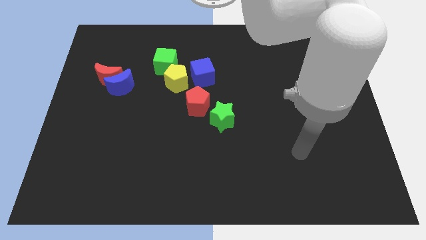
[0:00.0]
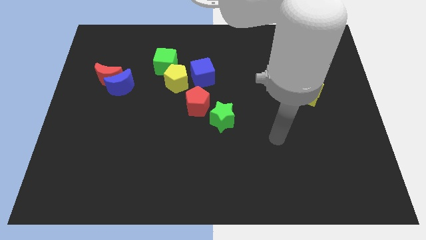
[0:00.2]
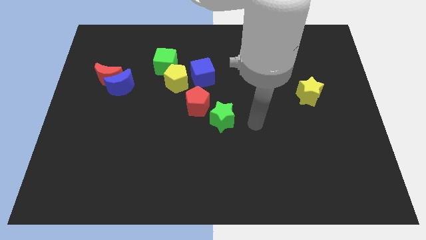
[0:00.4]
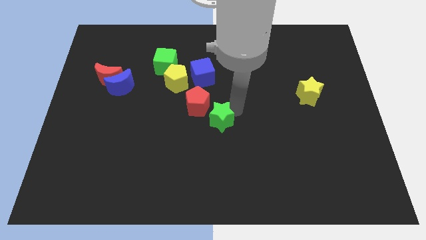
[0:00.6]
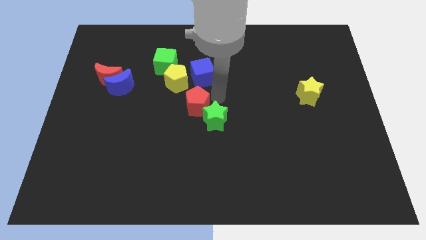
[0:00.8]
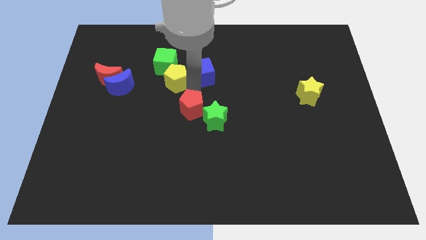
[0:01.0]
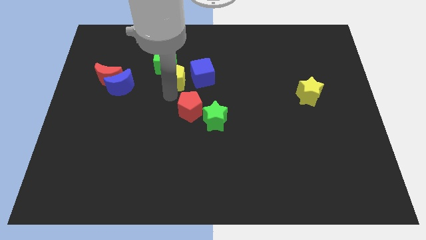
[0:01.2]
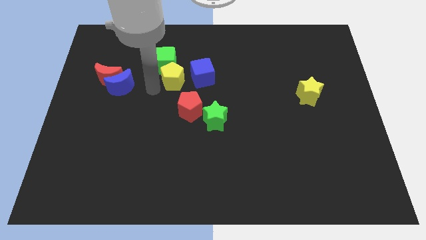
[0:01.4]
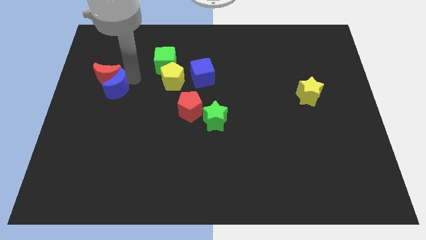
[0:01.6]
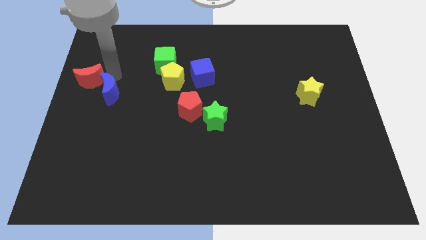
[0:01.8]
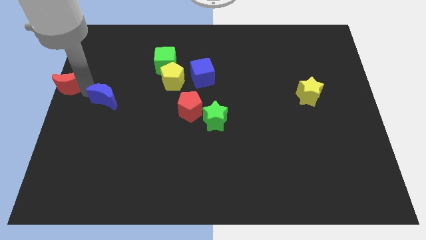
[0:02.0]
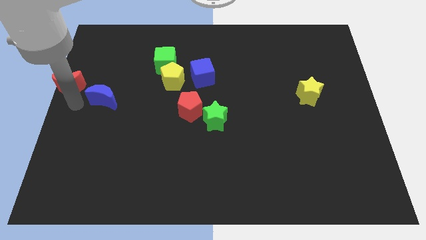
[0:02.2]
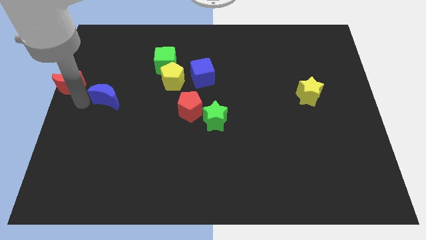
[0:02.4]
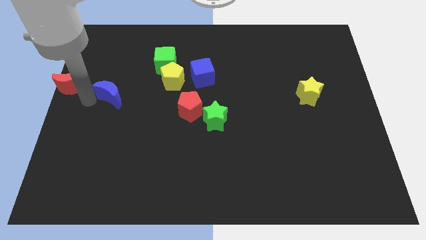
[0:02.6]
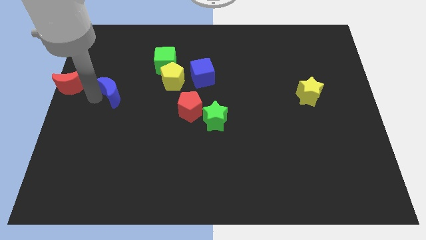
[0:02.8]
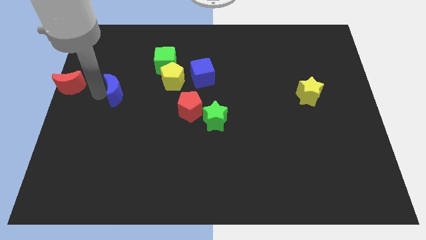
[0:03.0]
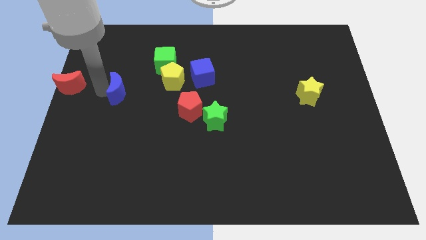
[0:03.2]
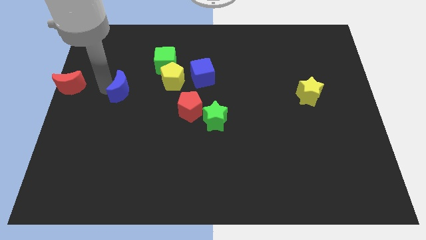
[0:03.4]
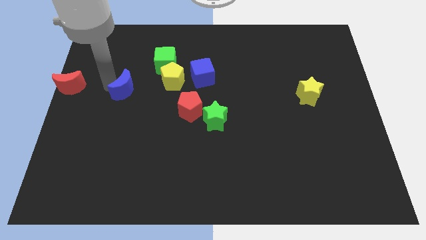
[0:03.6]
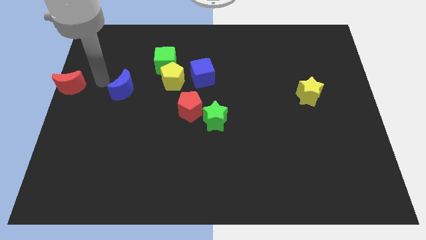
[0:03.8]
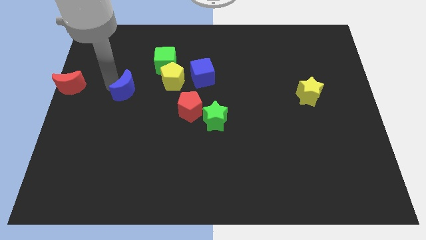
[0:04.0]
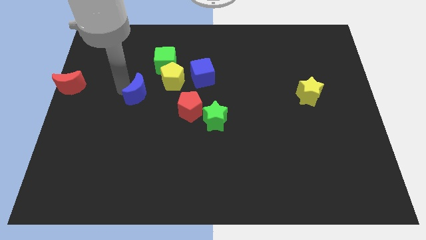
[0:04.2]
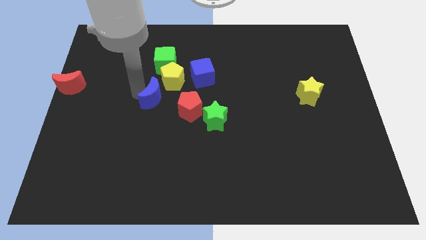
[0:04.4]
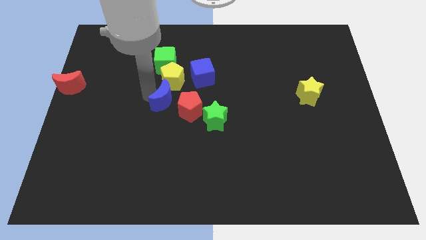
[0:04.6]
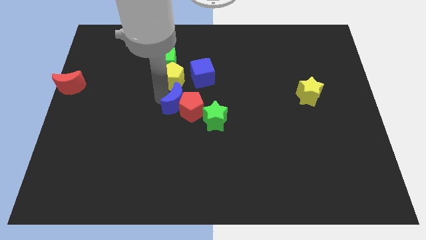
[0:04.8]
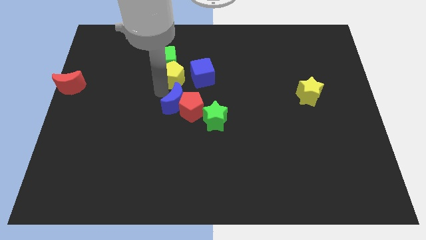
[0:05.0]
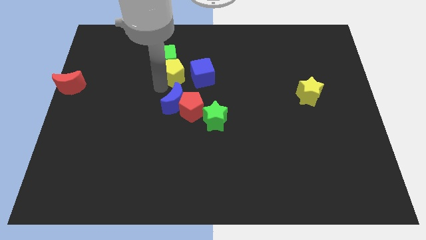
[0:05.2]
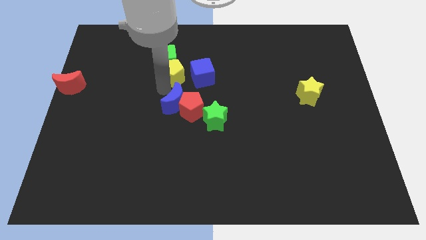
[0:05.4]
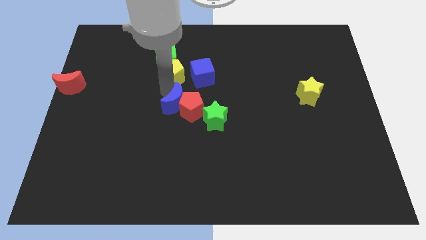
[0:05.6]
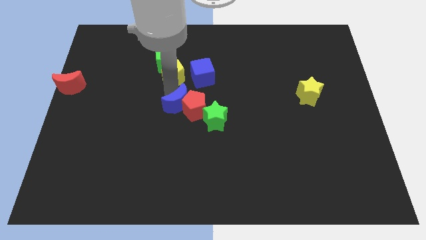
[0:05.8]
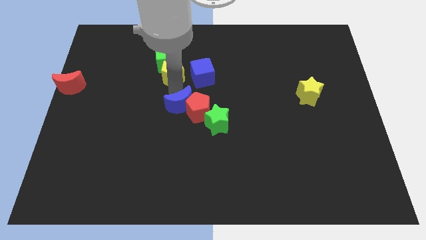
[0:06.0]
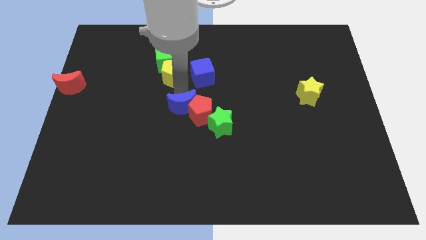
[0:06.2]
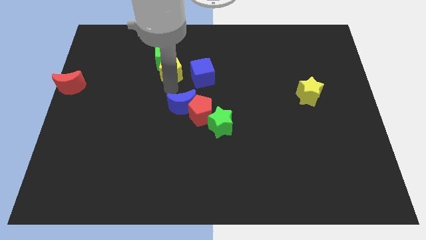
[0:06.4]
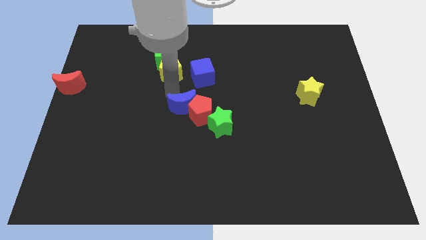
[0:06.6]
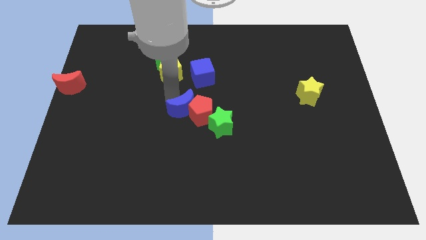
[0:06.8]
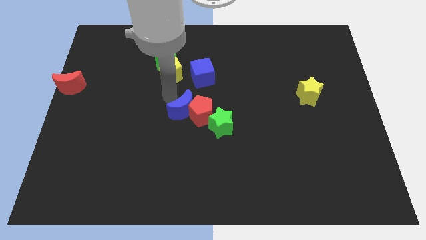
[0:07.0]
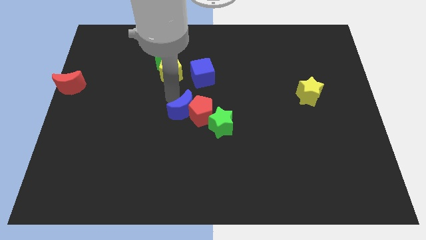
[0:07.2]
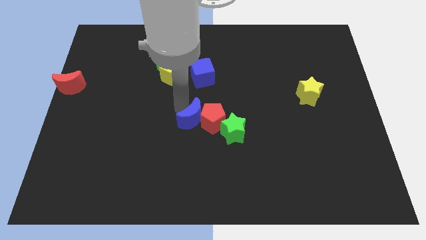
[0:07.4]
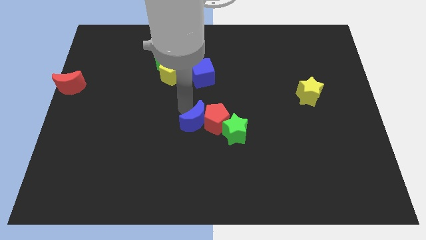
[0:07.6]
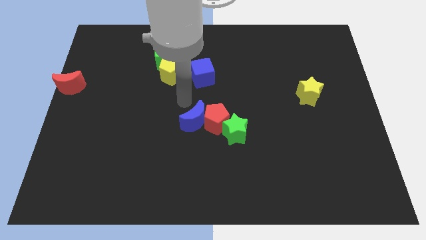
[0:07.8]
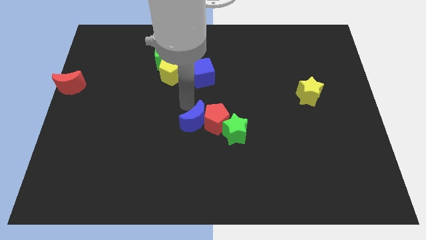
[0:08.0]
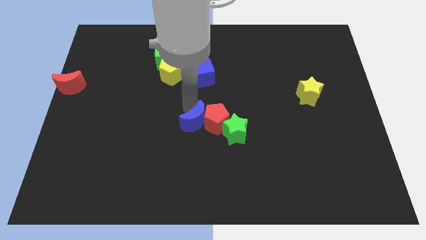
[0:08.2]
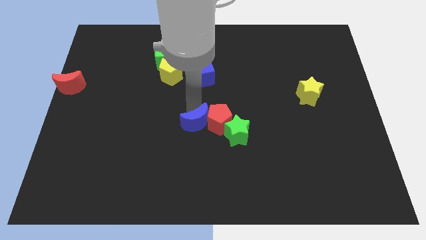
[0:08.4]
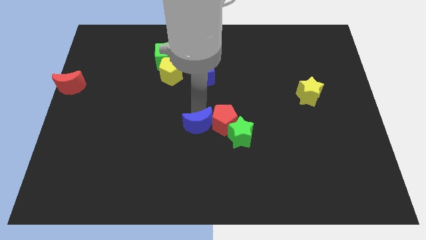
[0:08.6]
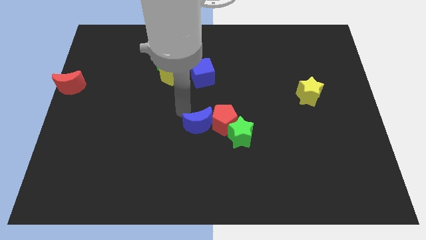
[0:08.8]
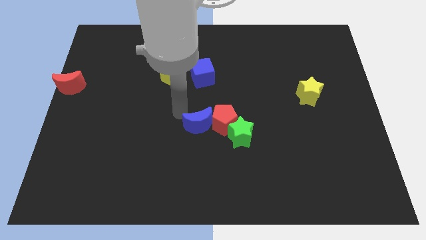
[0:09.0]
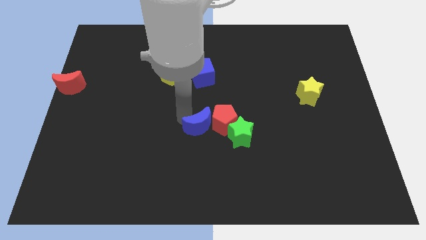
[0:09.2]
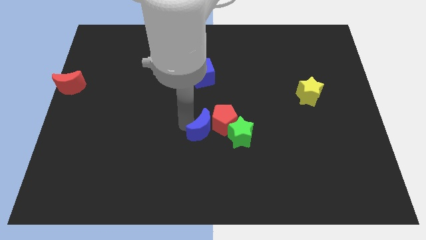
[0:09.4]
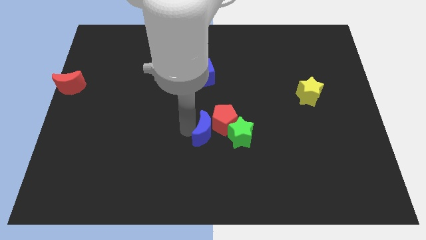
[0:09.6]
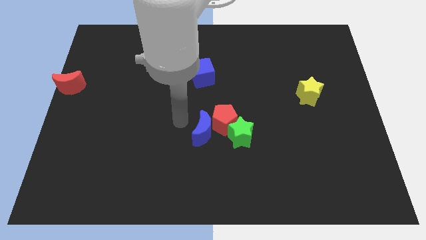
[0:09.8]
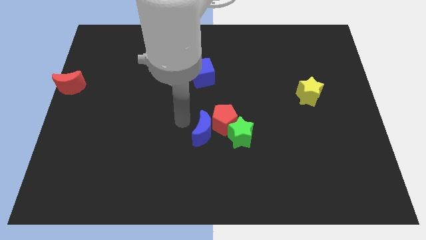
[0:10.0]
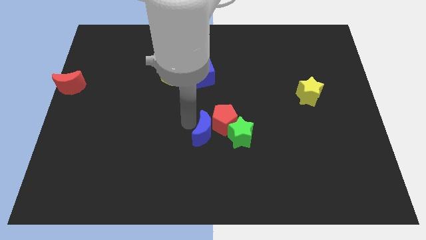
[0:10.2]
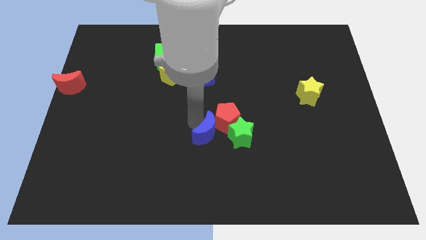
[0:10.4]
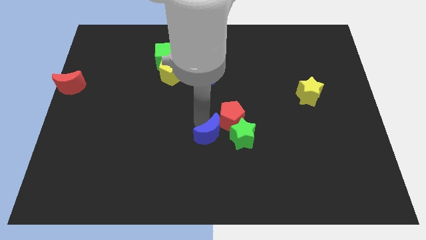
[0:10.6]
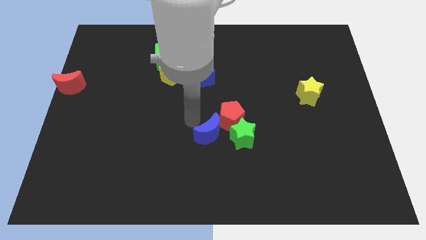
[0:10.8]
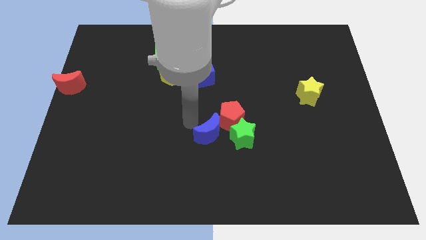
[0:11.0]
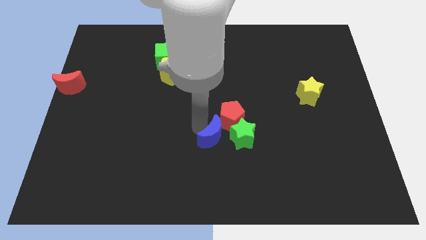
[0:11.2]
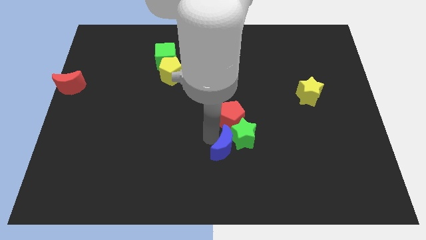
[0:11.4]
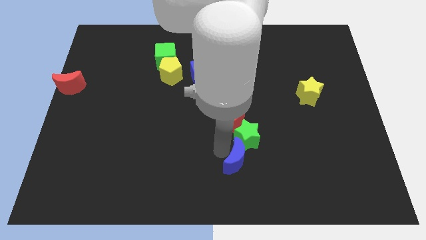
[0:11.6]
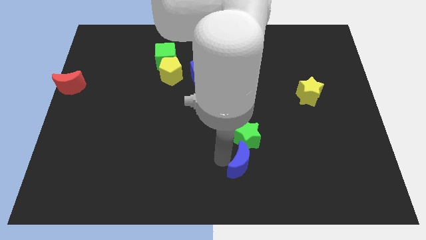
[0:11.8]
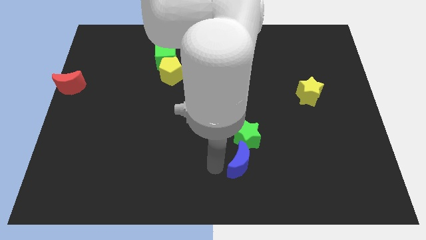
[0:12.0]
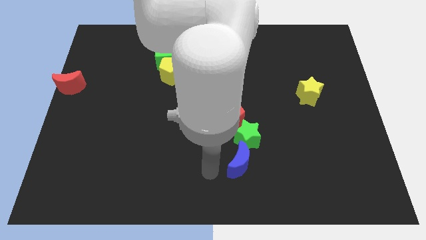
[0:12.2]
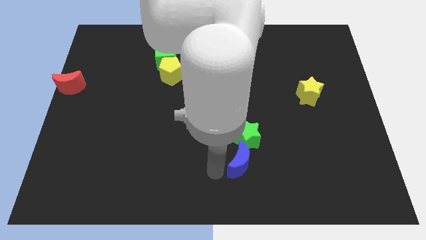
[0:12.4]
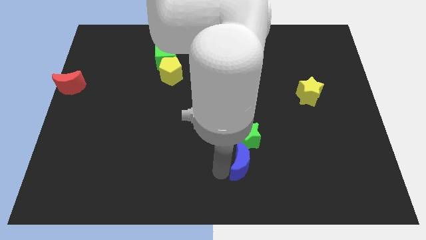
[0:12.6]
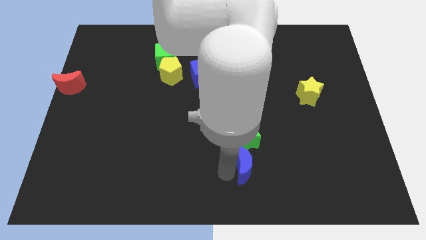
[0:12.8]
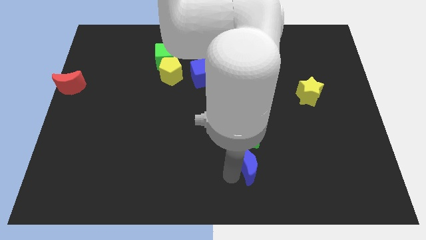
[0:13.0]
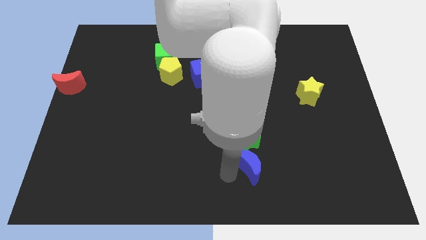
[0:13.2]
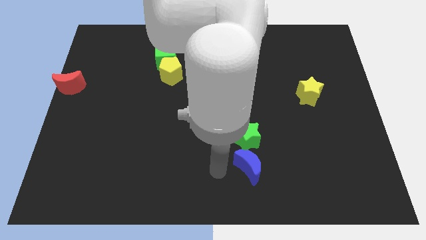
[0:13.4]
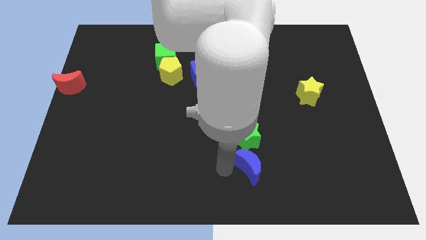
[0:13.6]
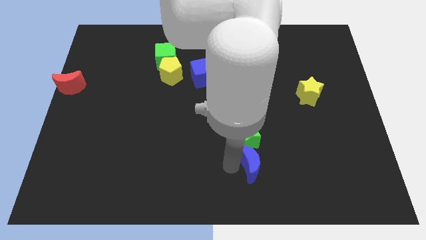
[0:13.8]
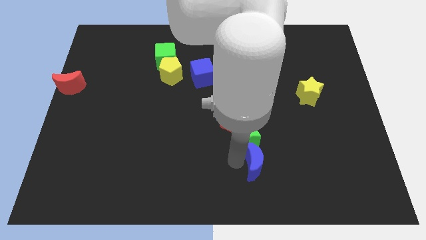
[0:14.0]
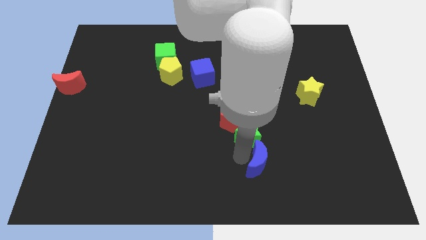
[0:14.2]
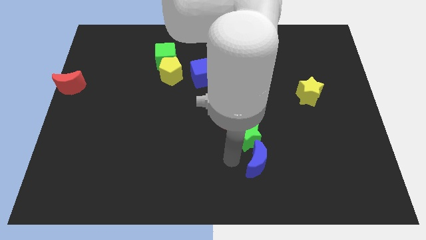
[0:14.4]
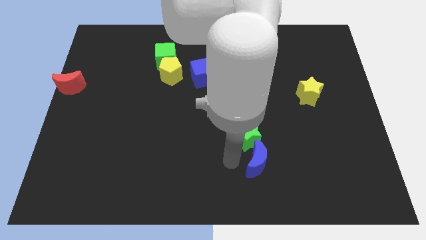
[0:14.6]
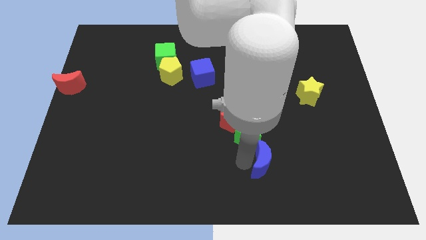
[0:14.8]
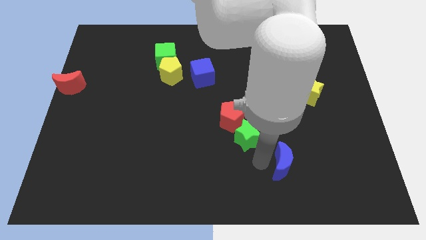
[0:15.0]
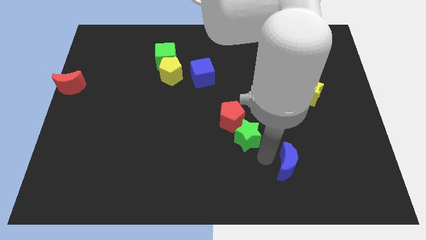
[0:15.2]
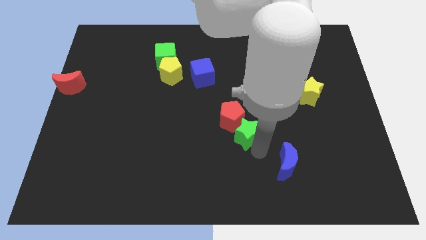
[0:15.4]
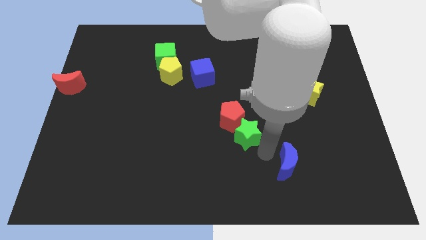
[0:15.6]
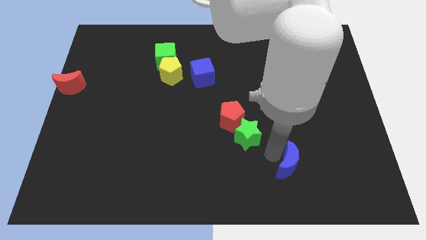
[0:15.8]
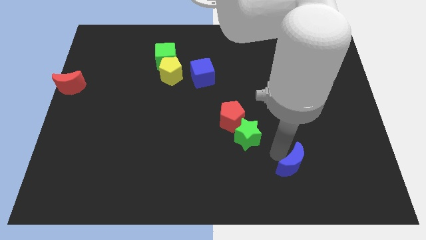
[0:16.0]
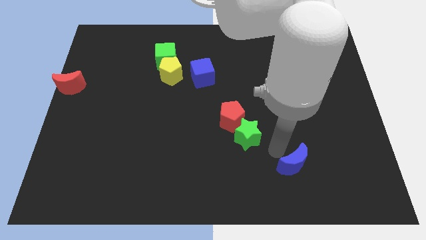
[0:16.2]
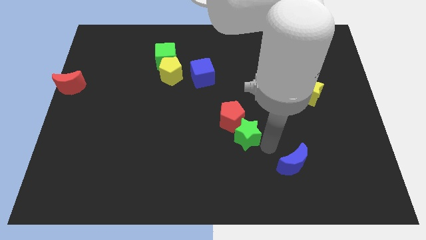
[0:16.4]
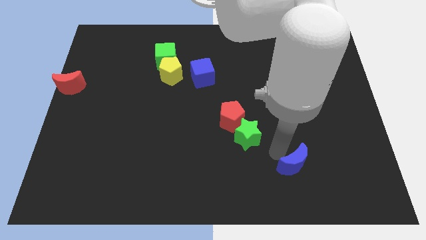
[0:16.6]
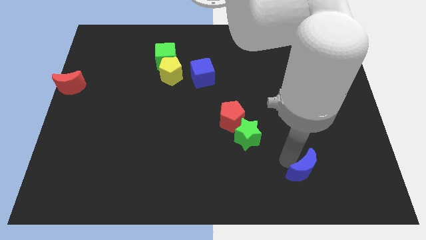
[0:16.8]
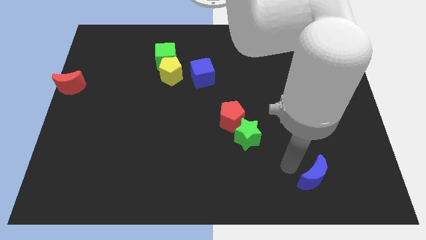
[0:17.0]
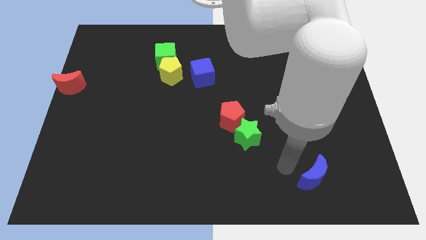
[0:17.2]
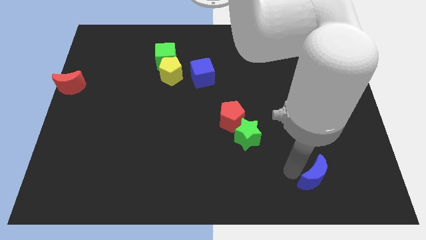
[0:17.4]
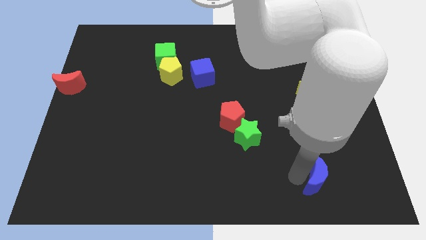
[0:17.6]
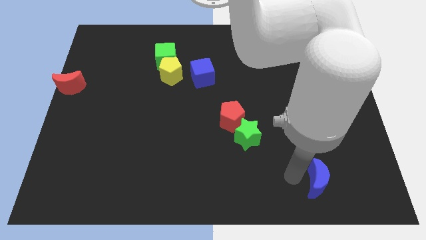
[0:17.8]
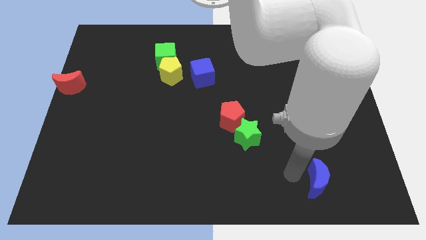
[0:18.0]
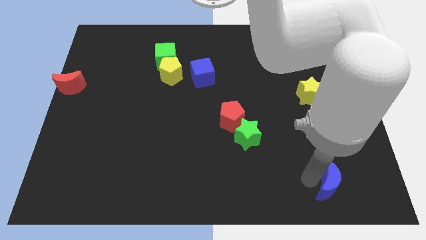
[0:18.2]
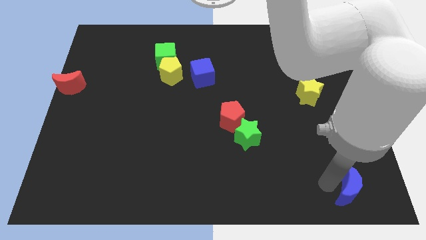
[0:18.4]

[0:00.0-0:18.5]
put the blue moon to the bottom right corner
